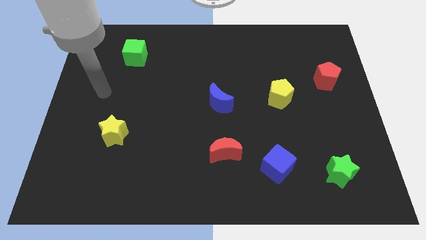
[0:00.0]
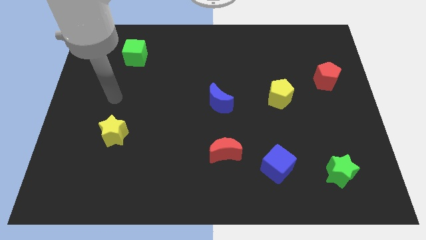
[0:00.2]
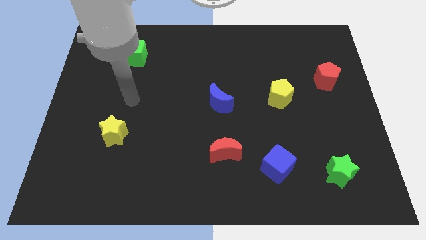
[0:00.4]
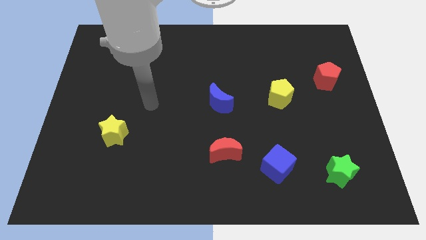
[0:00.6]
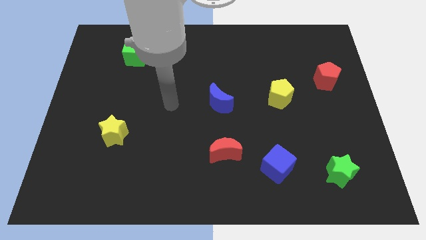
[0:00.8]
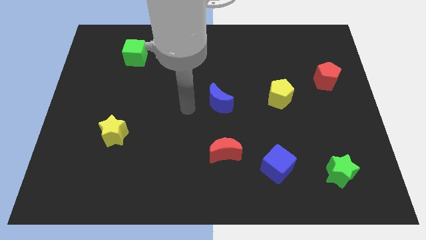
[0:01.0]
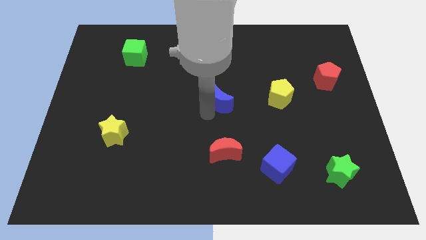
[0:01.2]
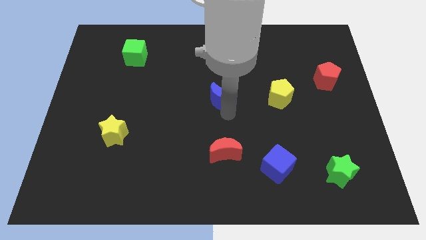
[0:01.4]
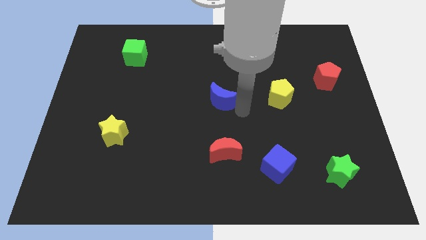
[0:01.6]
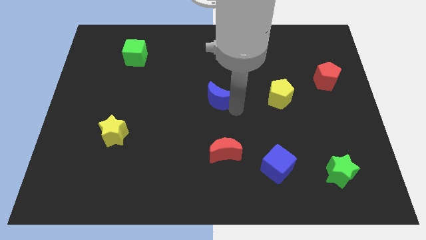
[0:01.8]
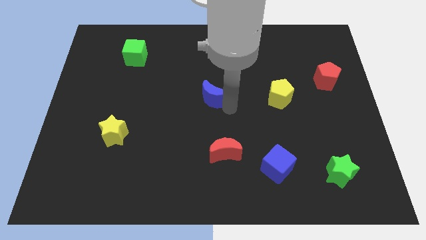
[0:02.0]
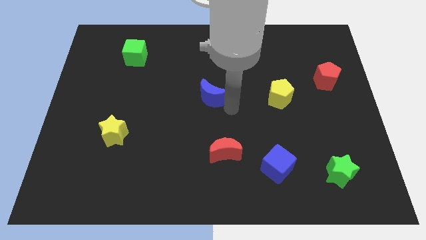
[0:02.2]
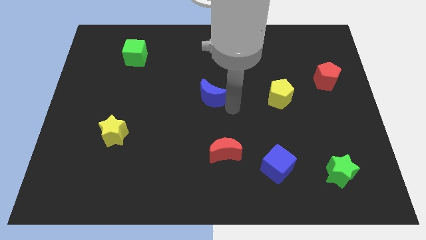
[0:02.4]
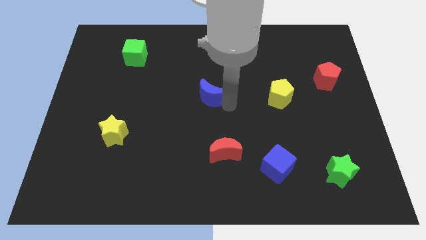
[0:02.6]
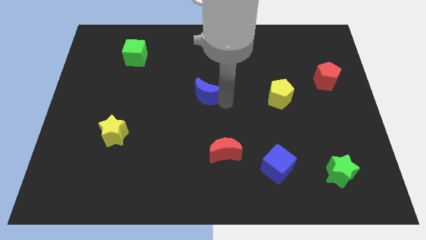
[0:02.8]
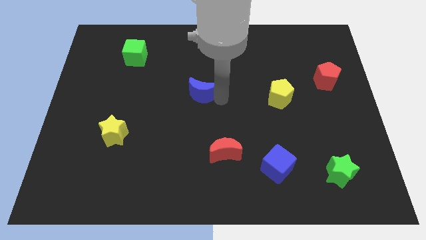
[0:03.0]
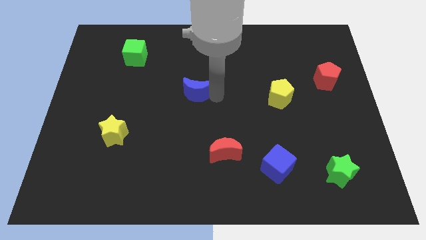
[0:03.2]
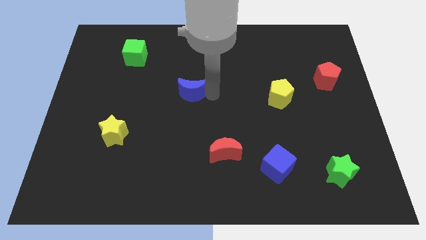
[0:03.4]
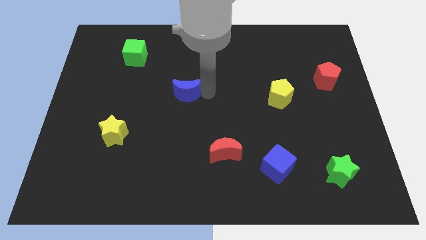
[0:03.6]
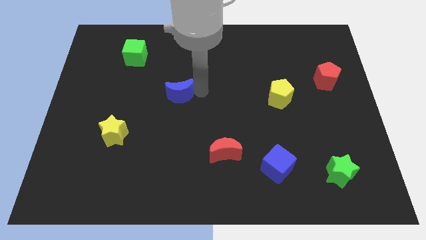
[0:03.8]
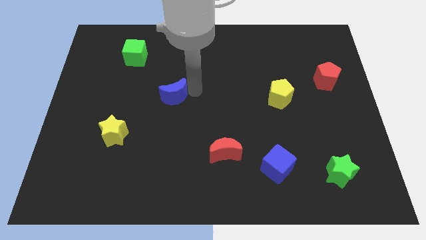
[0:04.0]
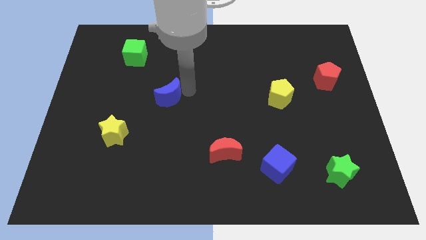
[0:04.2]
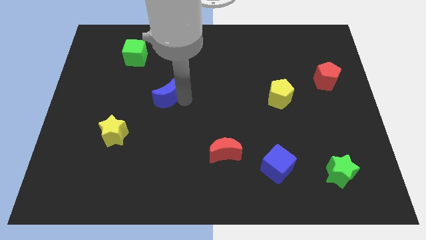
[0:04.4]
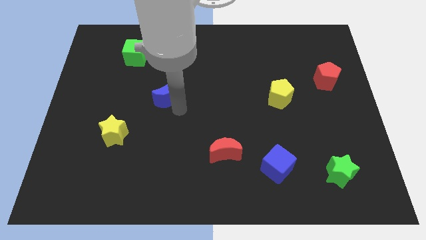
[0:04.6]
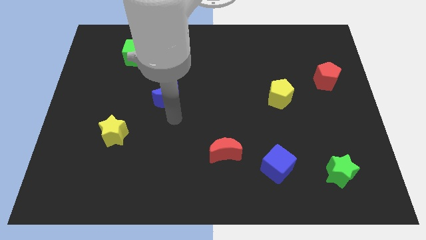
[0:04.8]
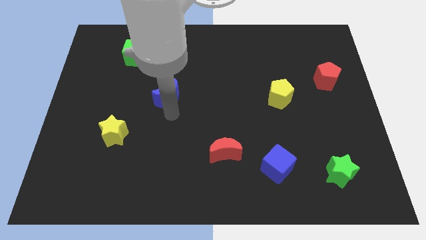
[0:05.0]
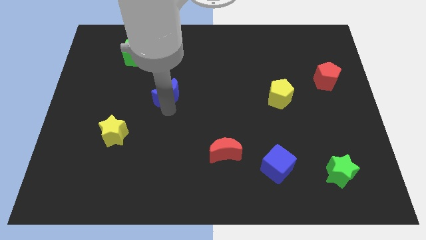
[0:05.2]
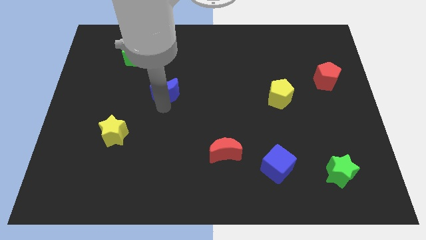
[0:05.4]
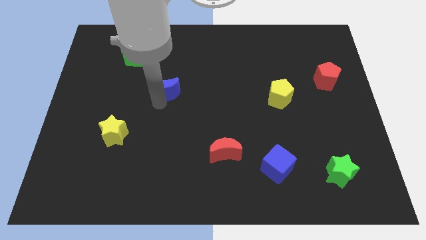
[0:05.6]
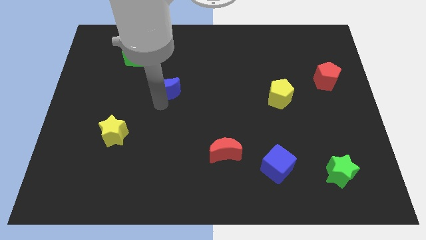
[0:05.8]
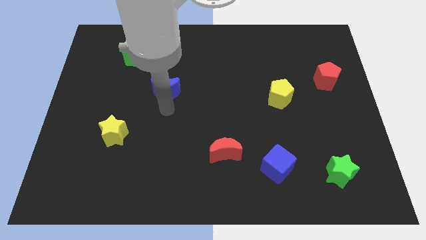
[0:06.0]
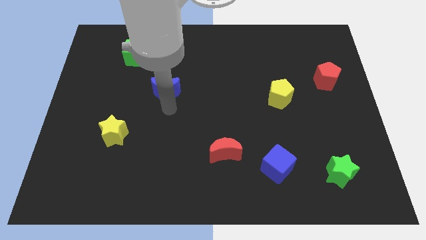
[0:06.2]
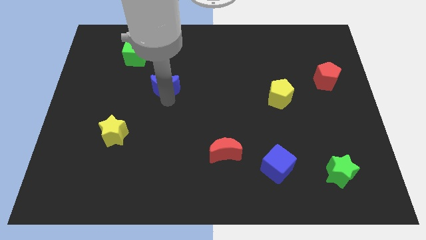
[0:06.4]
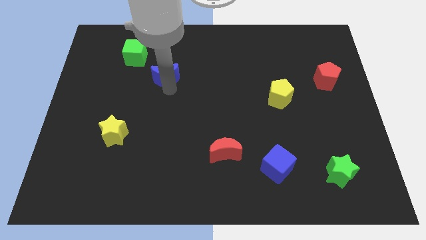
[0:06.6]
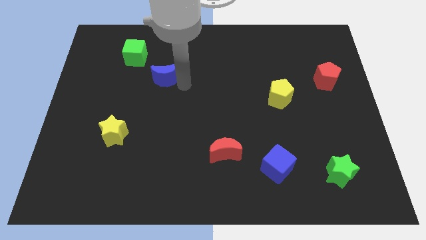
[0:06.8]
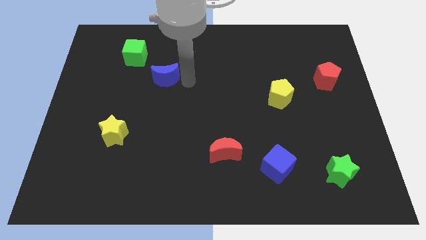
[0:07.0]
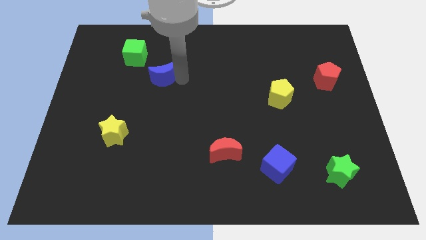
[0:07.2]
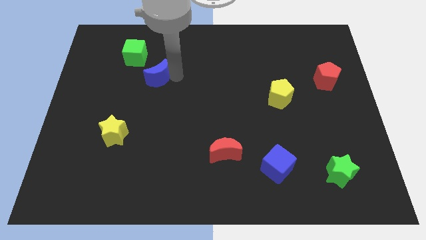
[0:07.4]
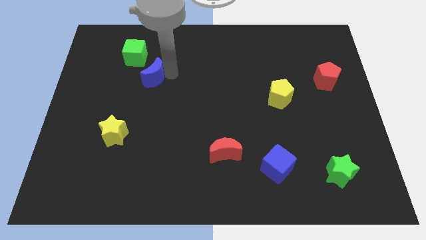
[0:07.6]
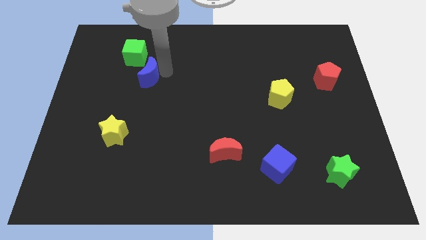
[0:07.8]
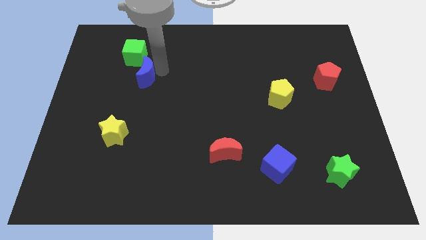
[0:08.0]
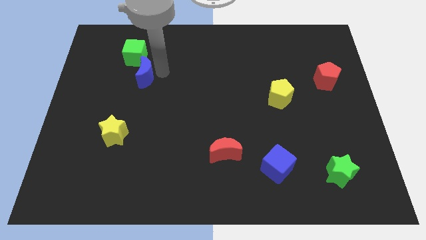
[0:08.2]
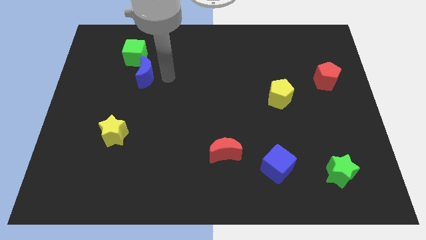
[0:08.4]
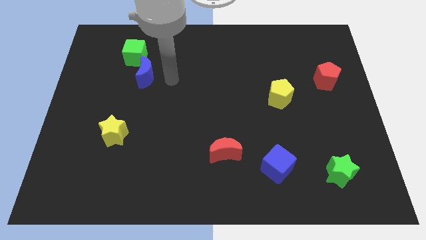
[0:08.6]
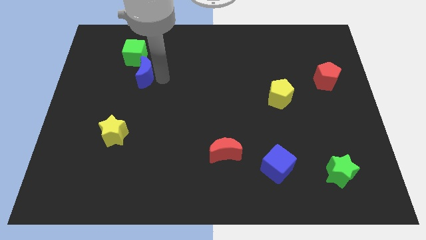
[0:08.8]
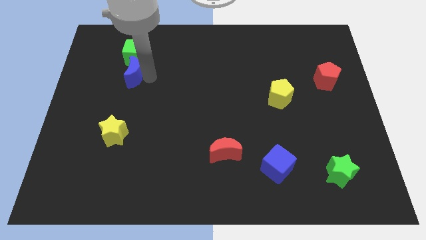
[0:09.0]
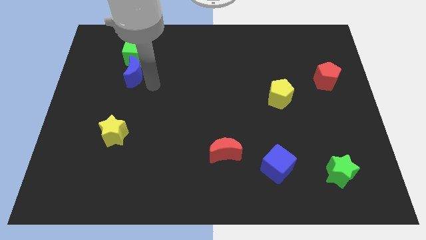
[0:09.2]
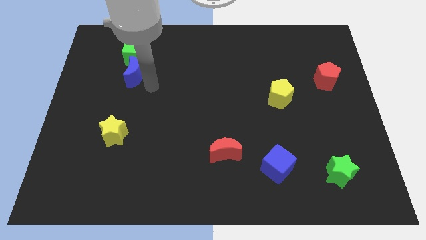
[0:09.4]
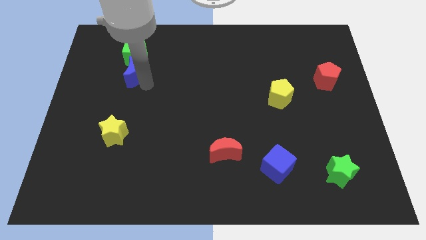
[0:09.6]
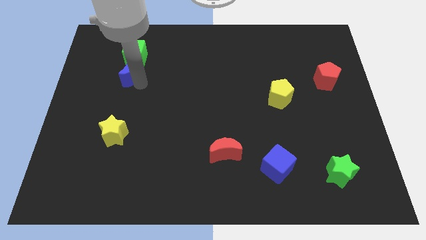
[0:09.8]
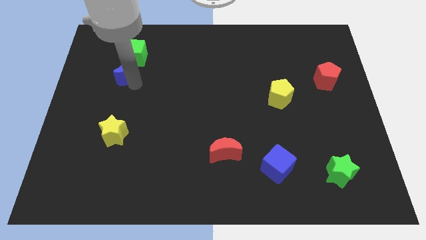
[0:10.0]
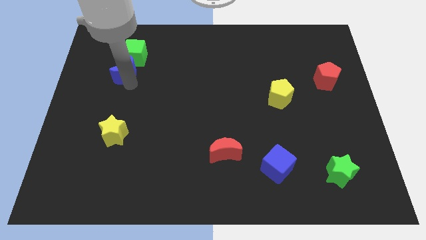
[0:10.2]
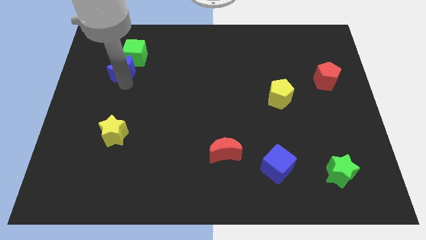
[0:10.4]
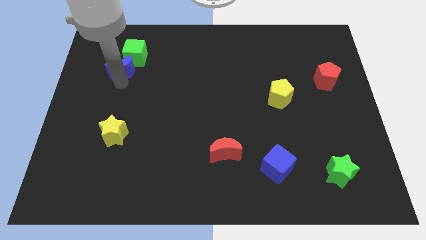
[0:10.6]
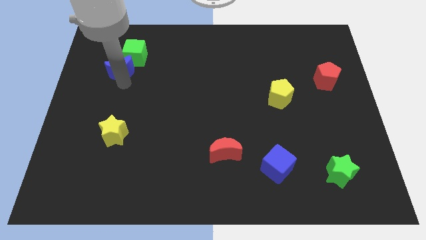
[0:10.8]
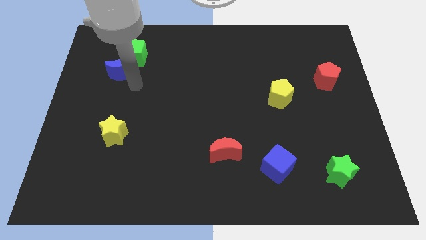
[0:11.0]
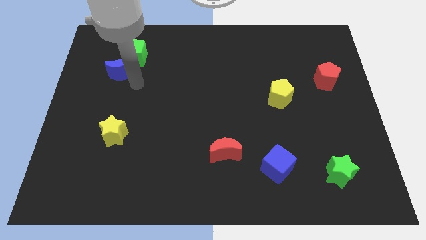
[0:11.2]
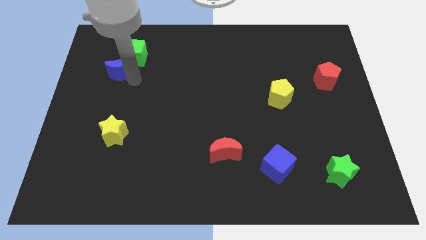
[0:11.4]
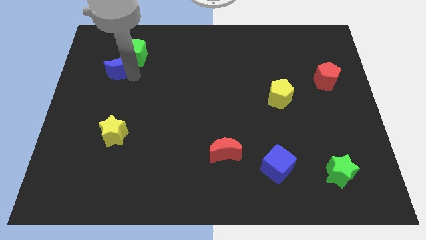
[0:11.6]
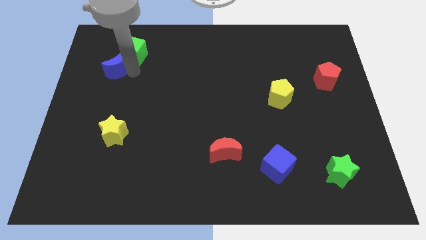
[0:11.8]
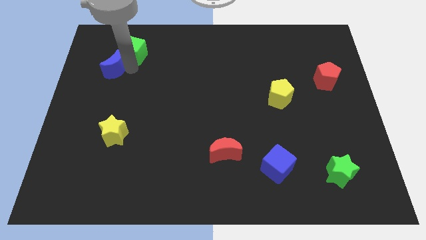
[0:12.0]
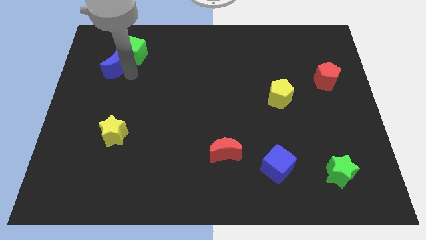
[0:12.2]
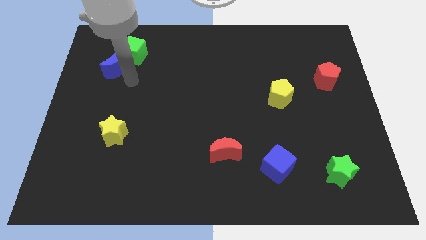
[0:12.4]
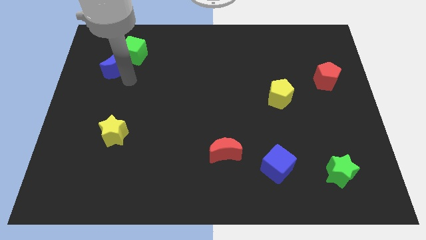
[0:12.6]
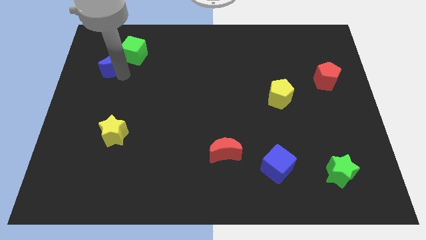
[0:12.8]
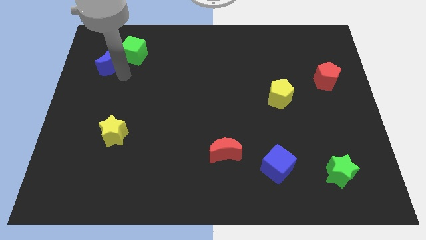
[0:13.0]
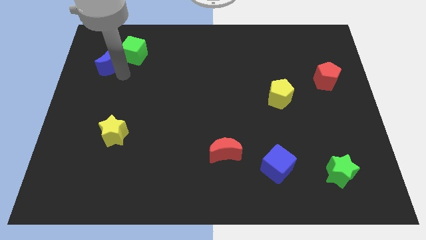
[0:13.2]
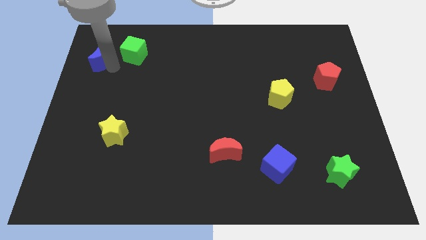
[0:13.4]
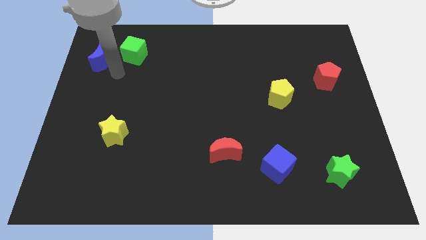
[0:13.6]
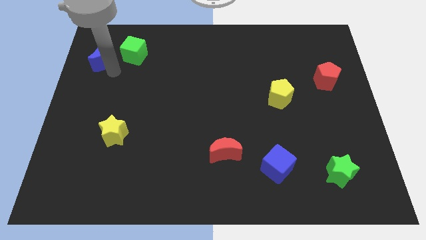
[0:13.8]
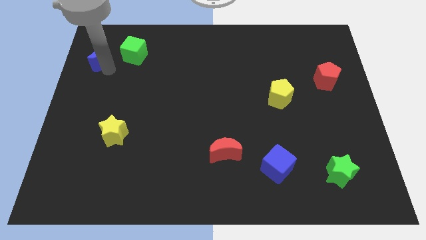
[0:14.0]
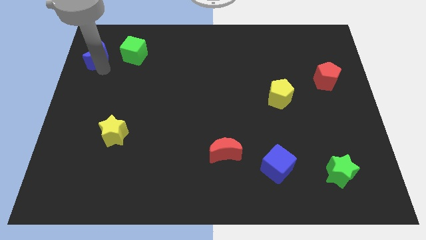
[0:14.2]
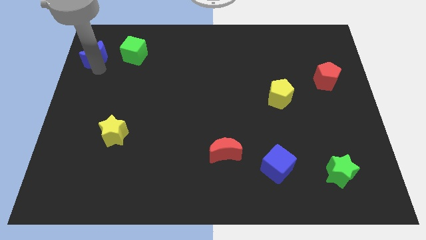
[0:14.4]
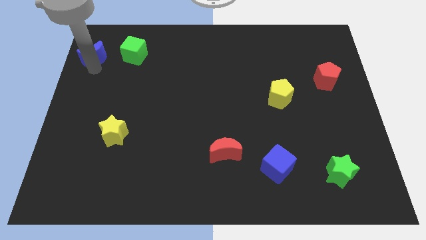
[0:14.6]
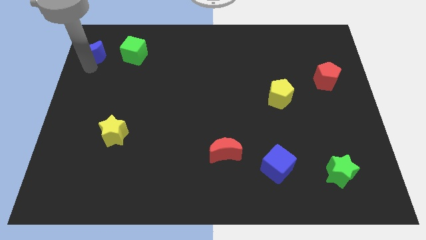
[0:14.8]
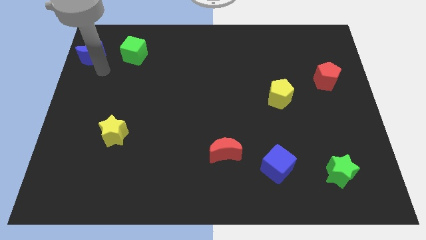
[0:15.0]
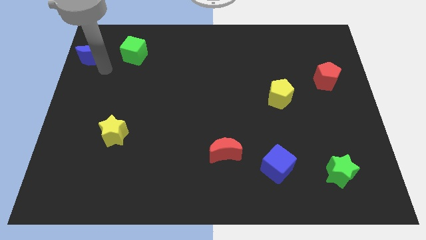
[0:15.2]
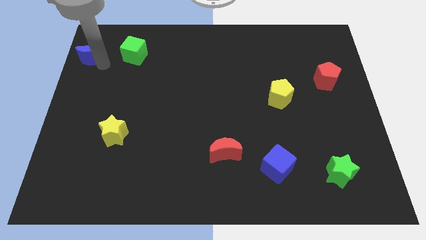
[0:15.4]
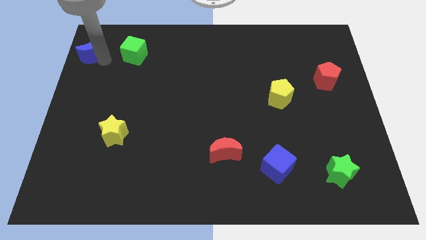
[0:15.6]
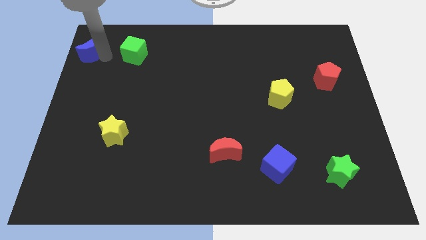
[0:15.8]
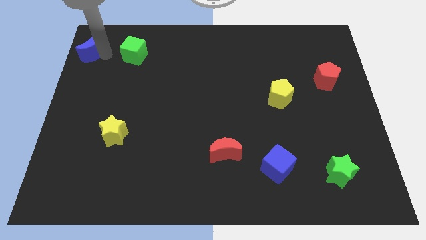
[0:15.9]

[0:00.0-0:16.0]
slide the blue moon to the top left corner
